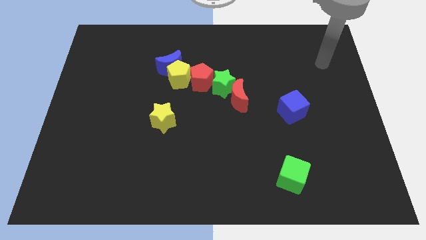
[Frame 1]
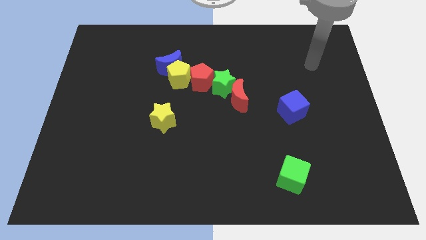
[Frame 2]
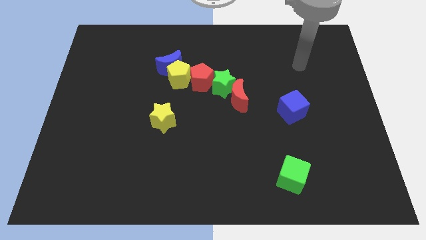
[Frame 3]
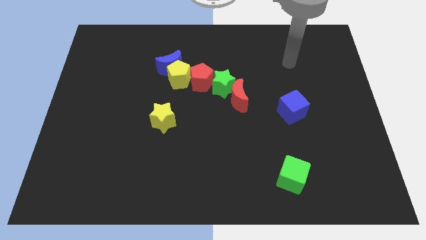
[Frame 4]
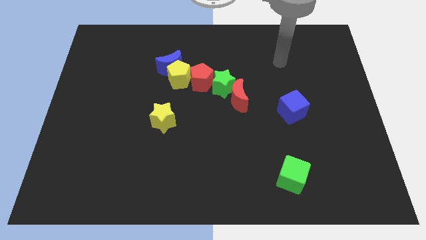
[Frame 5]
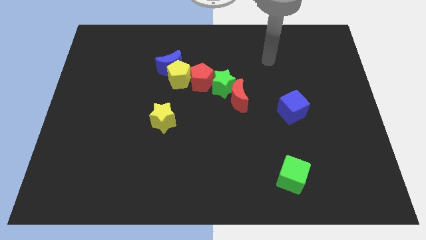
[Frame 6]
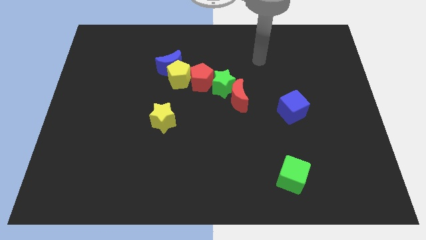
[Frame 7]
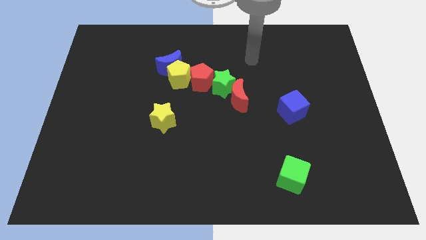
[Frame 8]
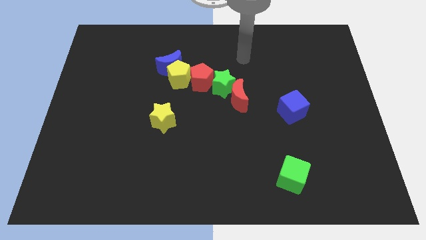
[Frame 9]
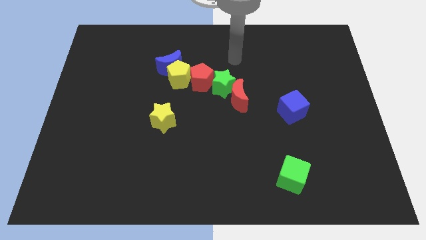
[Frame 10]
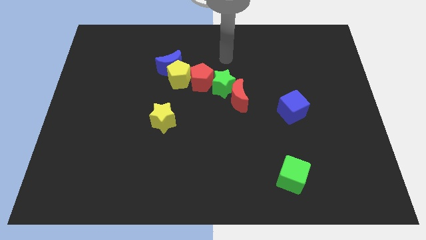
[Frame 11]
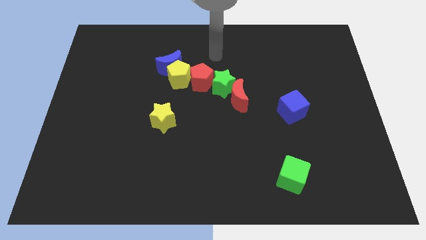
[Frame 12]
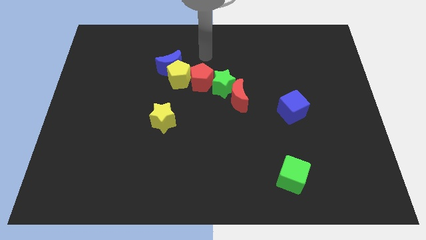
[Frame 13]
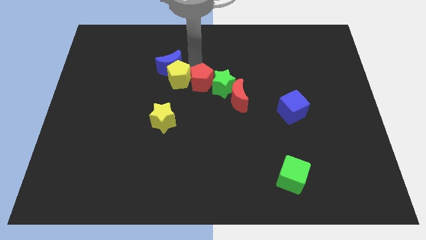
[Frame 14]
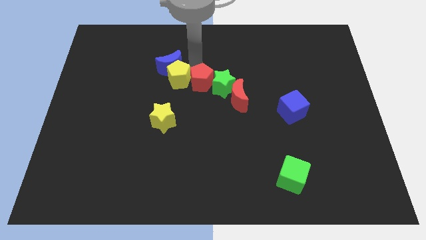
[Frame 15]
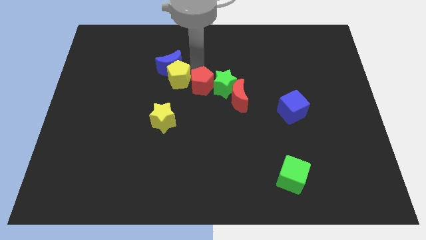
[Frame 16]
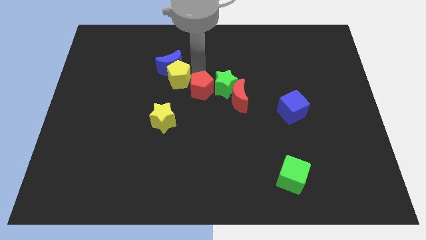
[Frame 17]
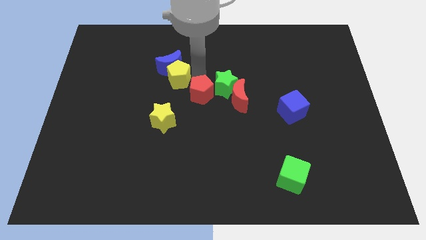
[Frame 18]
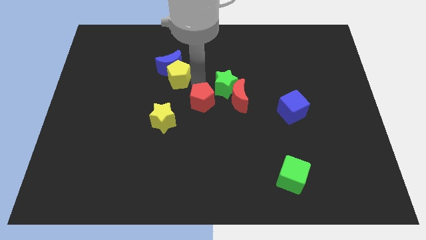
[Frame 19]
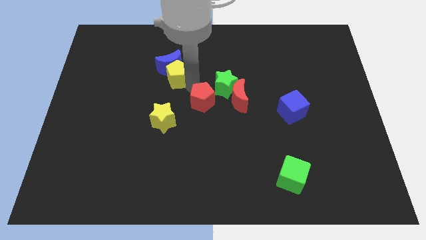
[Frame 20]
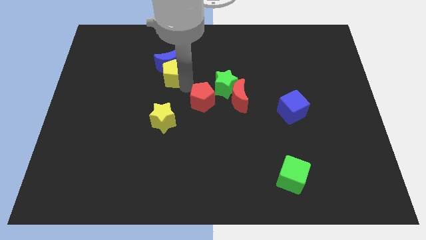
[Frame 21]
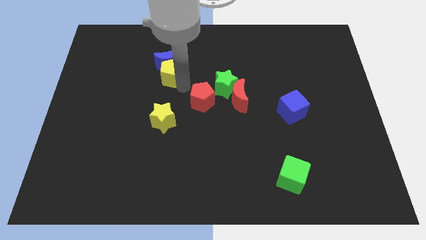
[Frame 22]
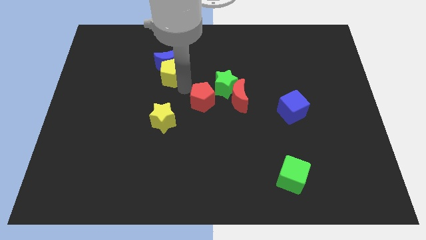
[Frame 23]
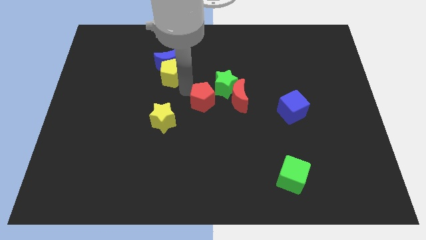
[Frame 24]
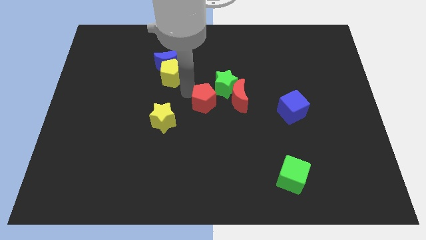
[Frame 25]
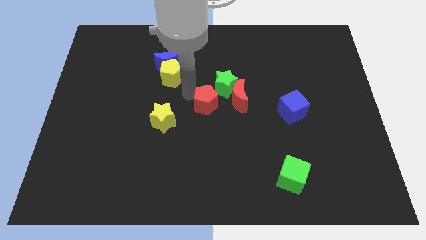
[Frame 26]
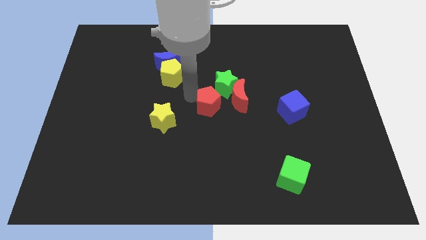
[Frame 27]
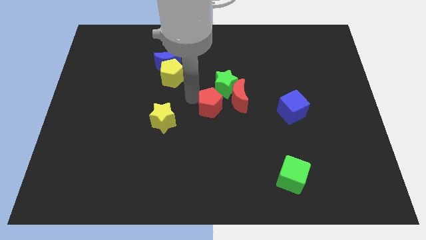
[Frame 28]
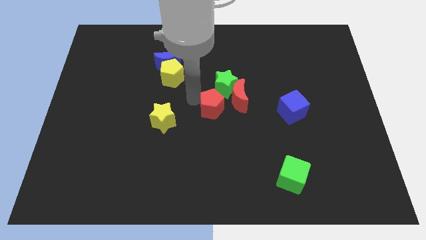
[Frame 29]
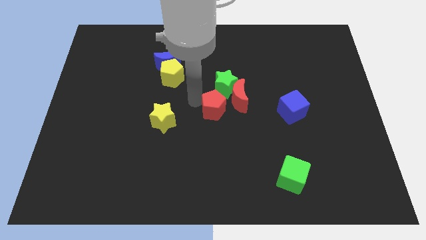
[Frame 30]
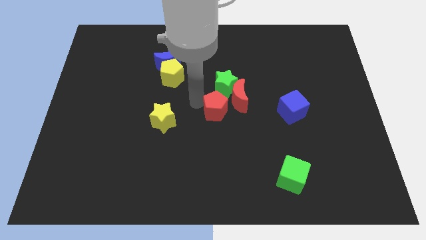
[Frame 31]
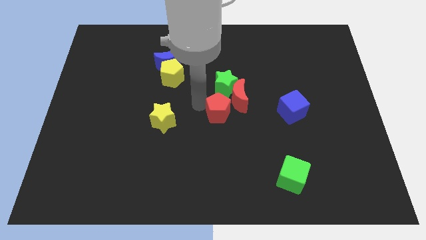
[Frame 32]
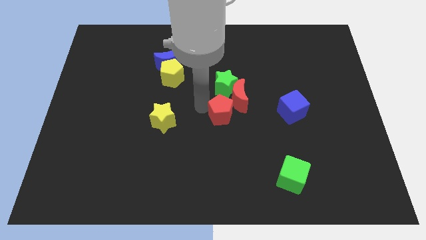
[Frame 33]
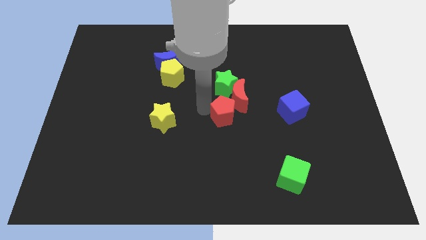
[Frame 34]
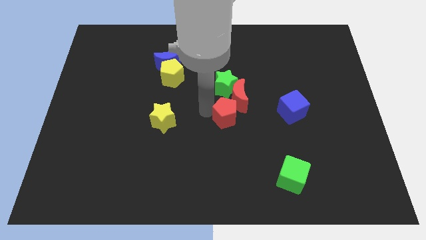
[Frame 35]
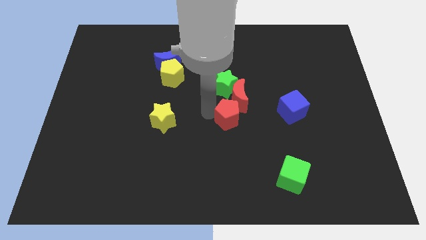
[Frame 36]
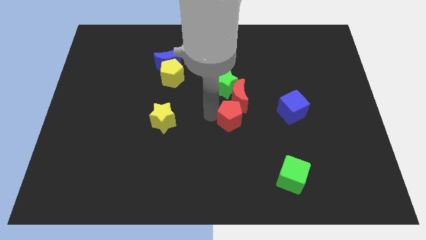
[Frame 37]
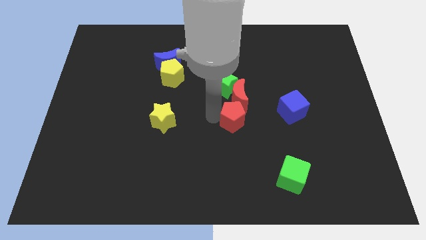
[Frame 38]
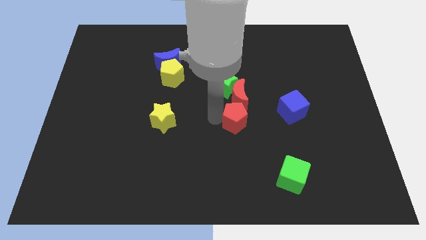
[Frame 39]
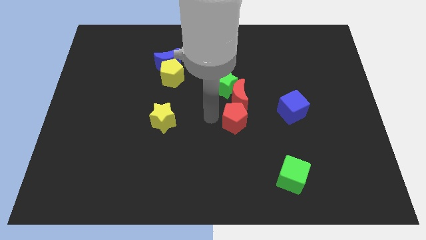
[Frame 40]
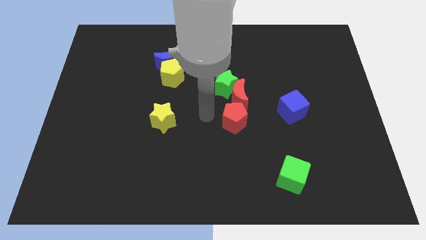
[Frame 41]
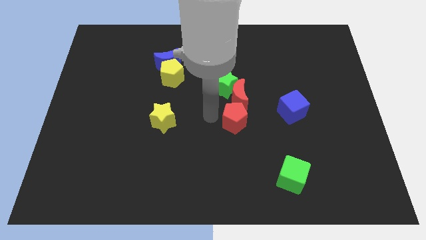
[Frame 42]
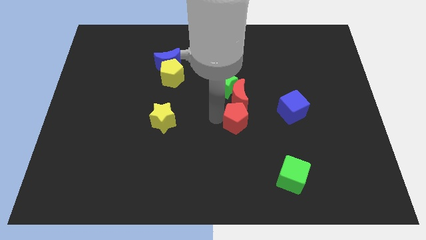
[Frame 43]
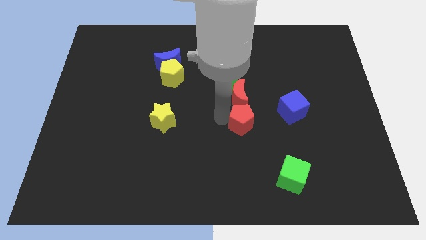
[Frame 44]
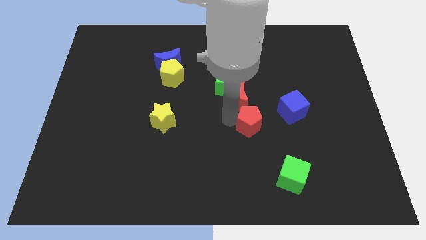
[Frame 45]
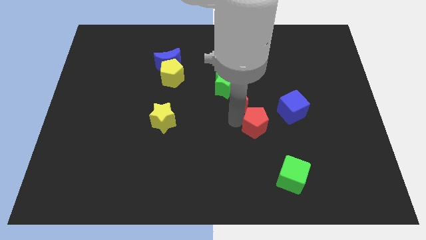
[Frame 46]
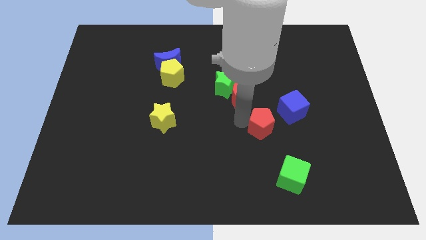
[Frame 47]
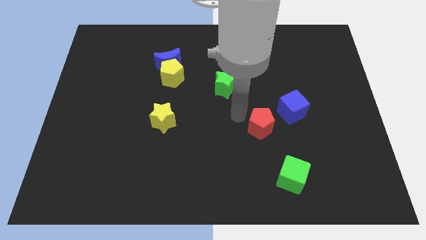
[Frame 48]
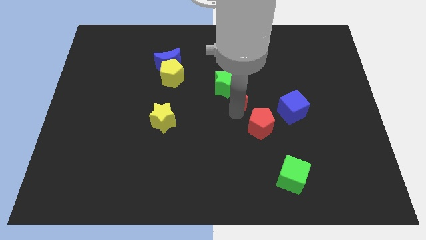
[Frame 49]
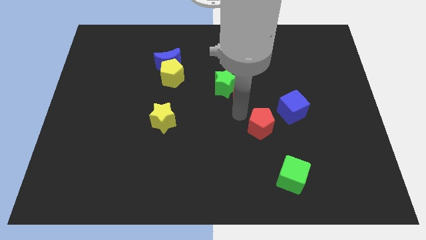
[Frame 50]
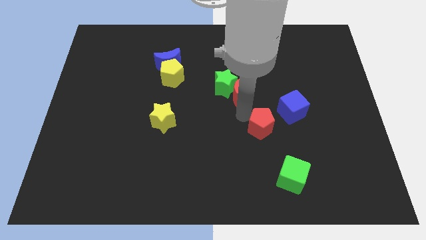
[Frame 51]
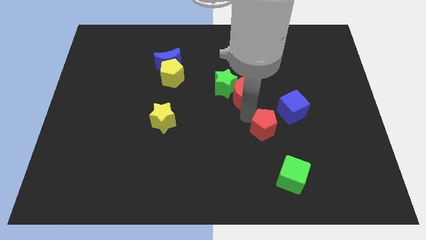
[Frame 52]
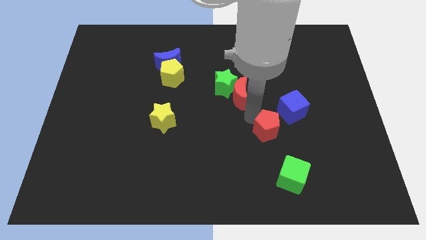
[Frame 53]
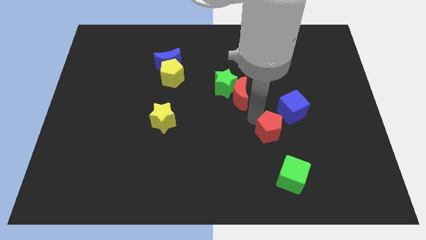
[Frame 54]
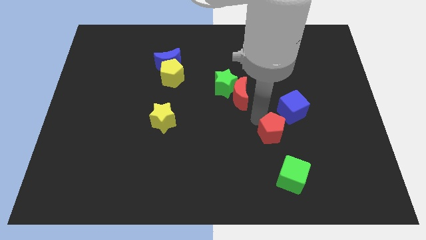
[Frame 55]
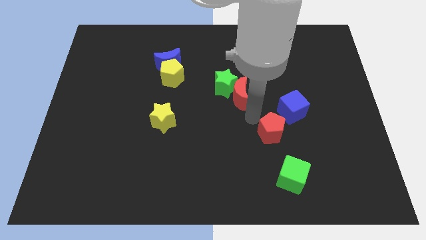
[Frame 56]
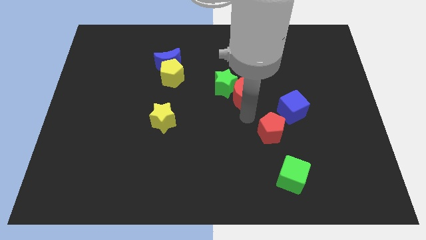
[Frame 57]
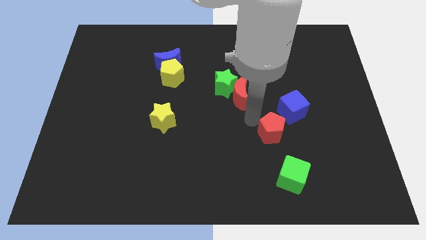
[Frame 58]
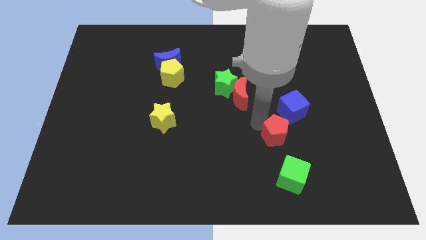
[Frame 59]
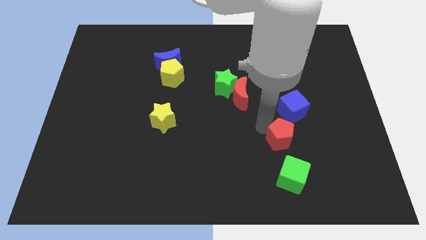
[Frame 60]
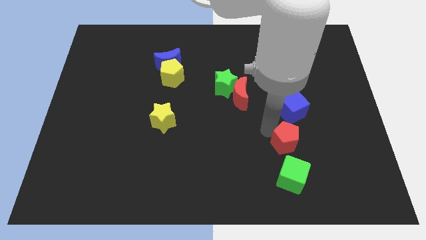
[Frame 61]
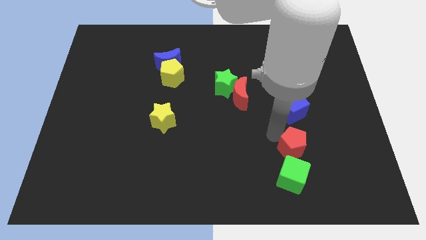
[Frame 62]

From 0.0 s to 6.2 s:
put the red pentagon to the top right side of the green cube
